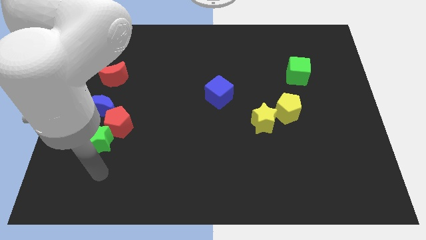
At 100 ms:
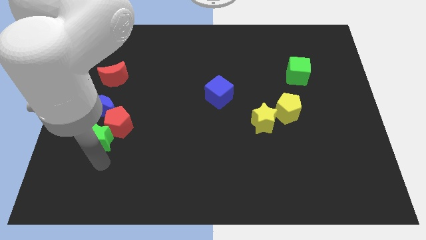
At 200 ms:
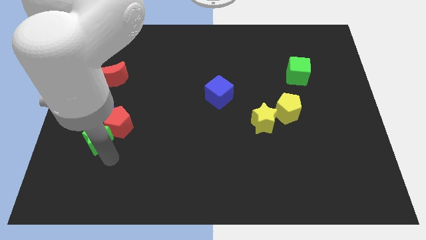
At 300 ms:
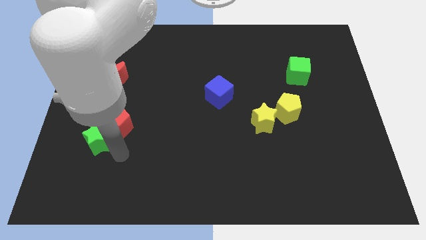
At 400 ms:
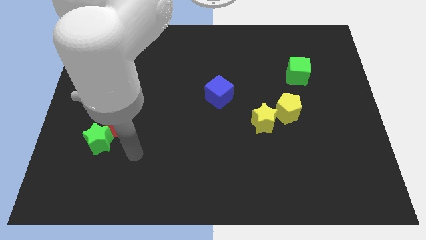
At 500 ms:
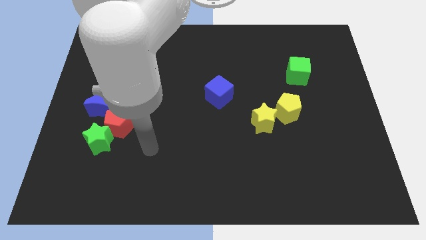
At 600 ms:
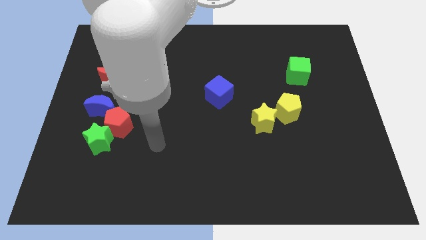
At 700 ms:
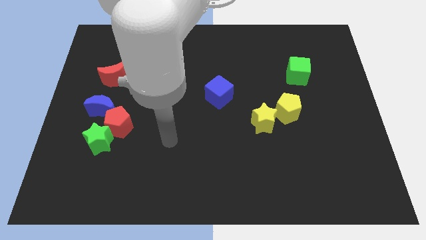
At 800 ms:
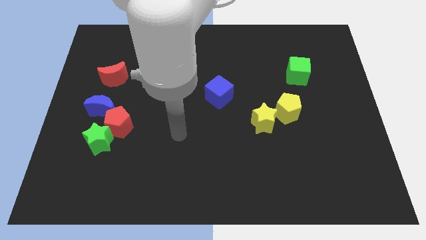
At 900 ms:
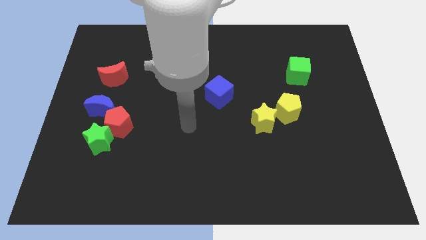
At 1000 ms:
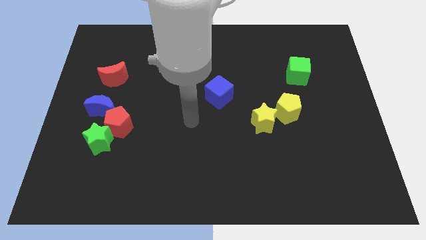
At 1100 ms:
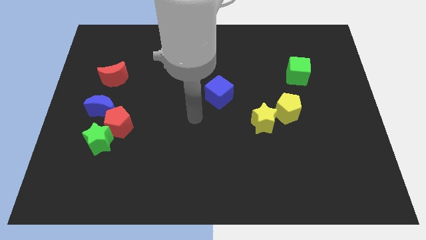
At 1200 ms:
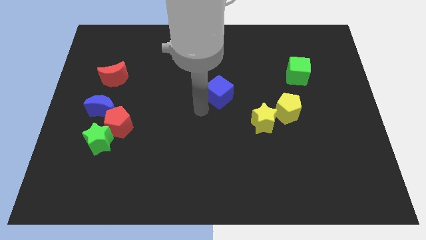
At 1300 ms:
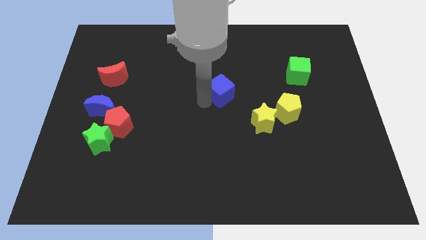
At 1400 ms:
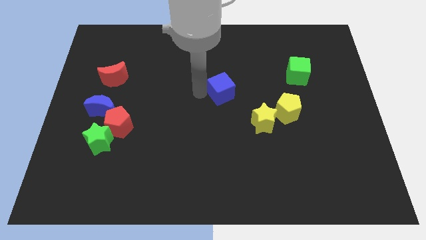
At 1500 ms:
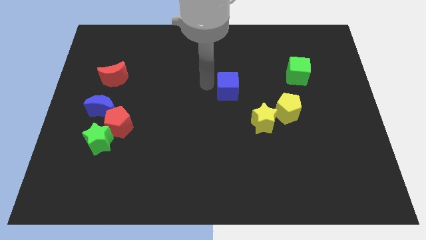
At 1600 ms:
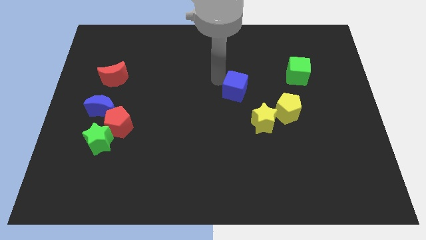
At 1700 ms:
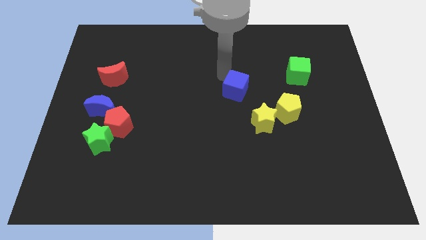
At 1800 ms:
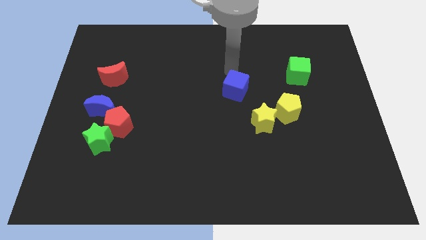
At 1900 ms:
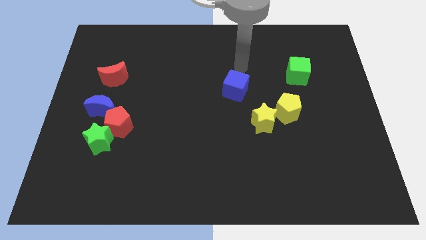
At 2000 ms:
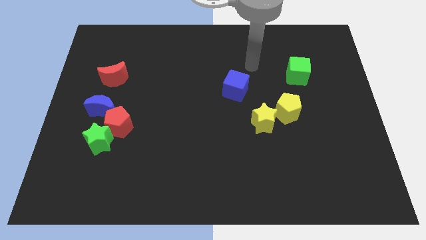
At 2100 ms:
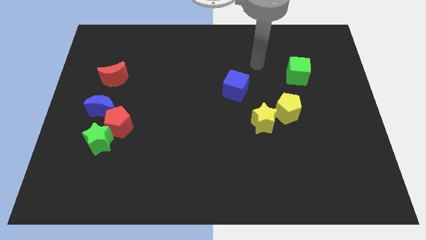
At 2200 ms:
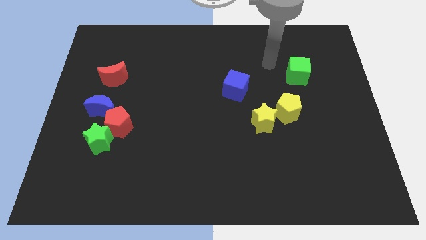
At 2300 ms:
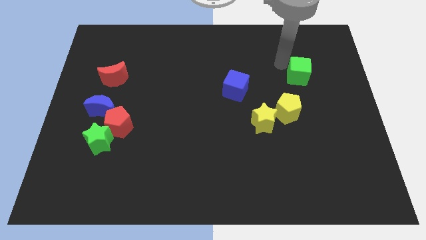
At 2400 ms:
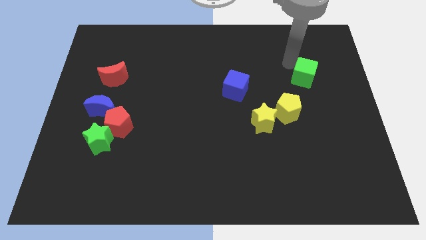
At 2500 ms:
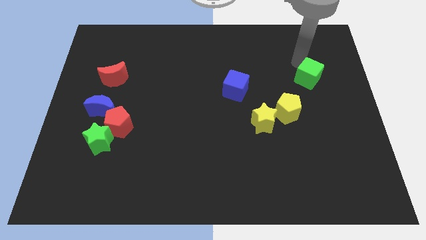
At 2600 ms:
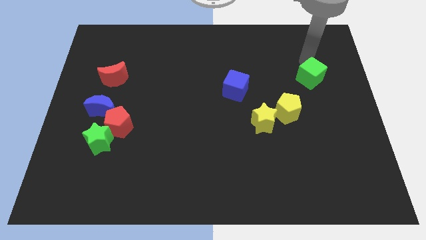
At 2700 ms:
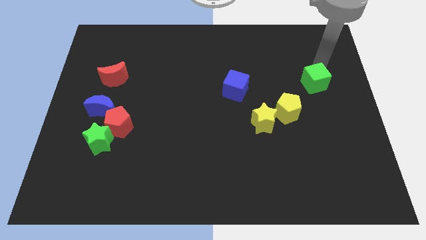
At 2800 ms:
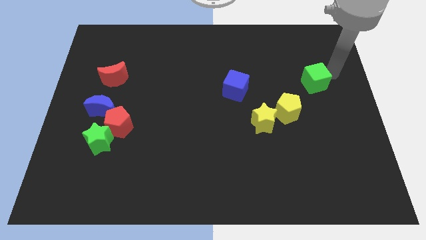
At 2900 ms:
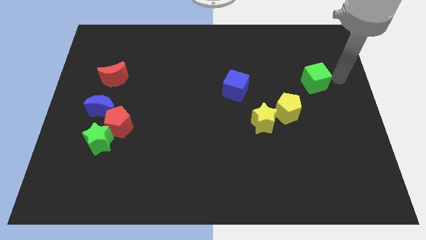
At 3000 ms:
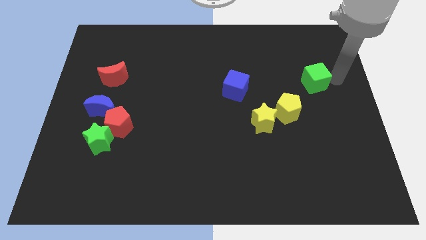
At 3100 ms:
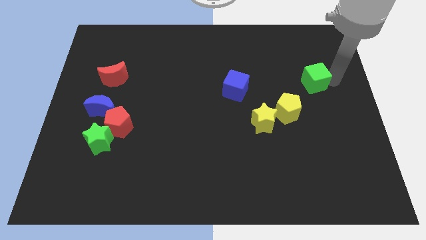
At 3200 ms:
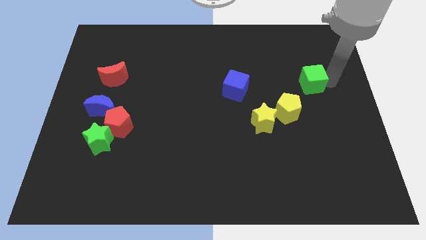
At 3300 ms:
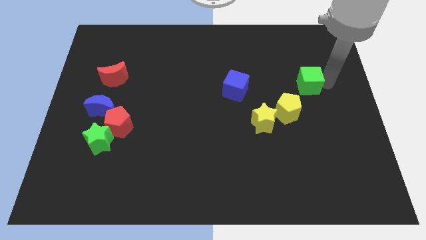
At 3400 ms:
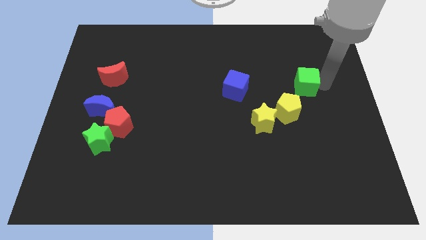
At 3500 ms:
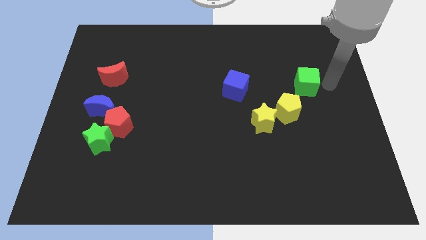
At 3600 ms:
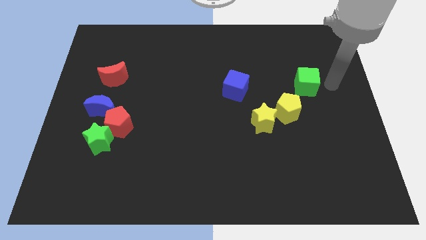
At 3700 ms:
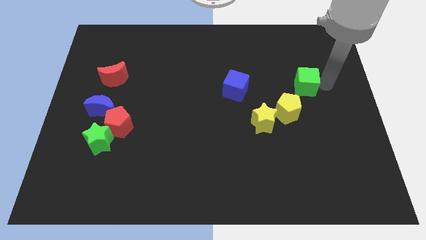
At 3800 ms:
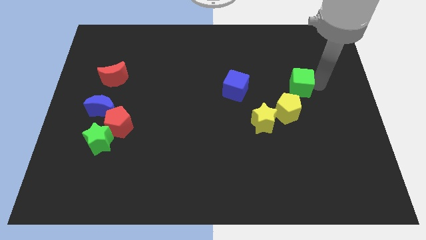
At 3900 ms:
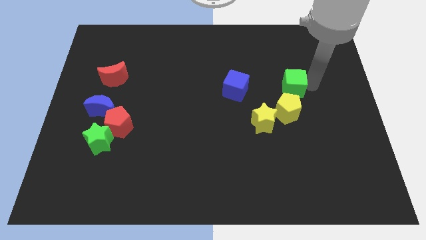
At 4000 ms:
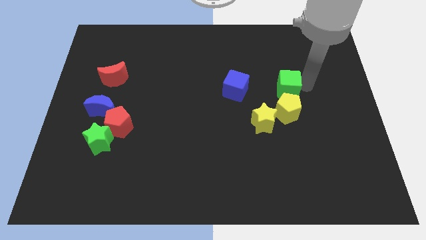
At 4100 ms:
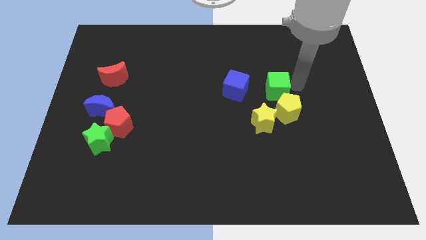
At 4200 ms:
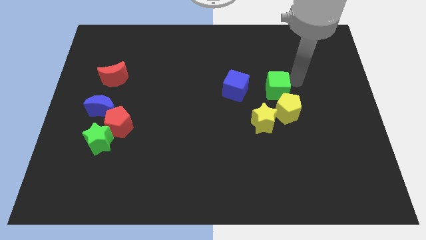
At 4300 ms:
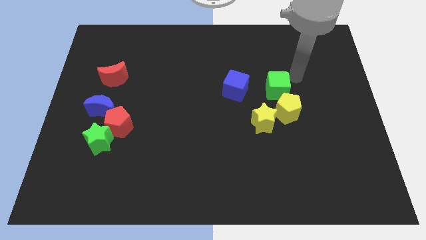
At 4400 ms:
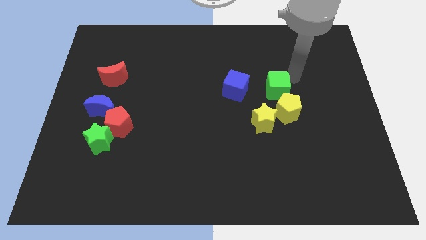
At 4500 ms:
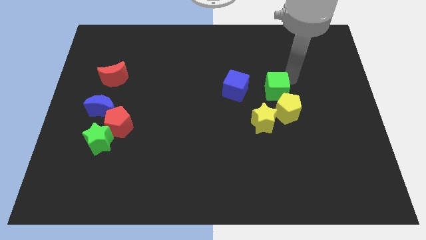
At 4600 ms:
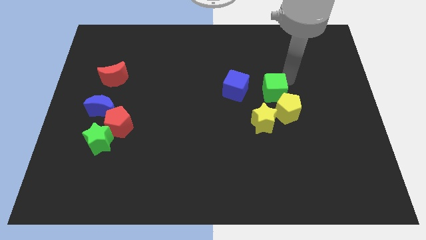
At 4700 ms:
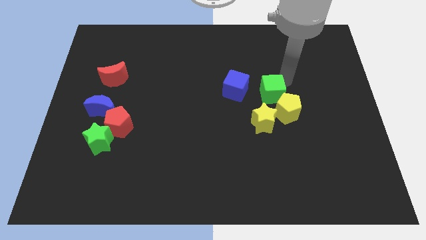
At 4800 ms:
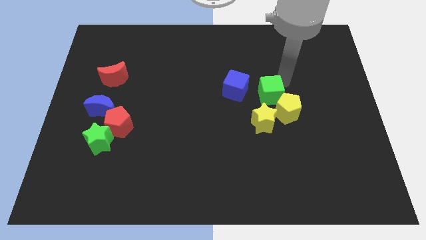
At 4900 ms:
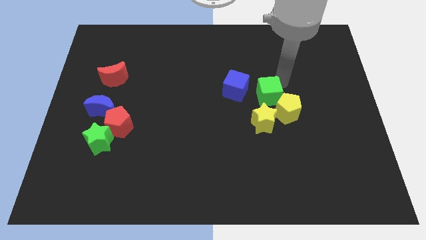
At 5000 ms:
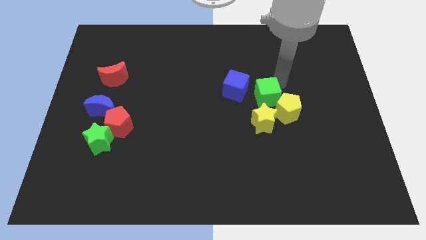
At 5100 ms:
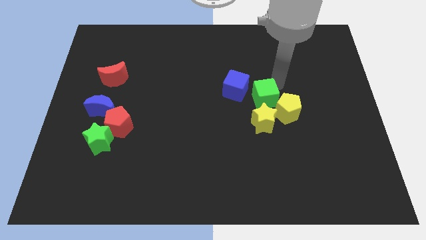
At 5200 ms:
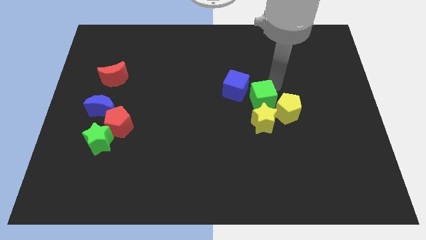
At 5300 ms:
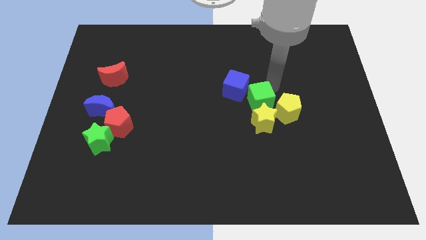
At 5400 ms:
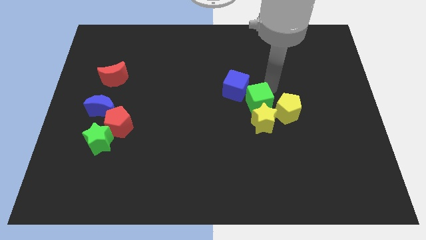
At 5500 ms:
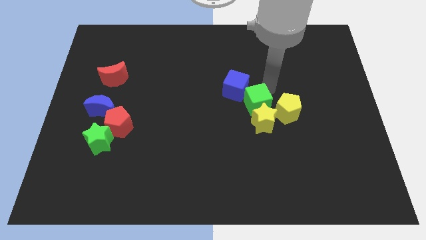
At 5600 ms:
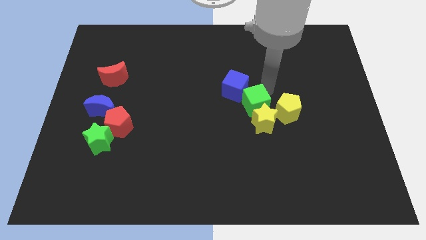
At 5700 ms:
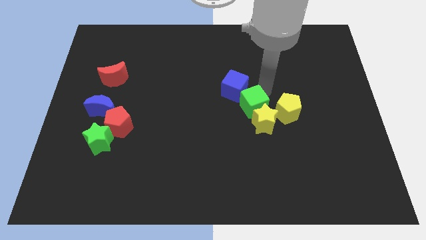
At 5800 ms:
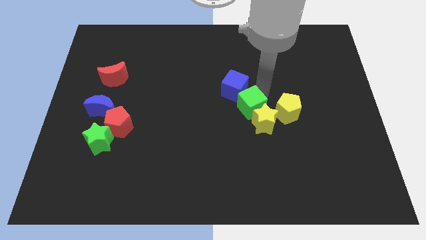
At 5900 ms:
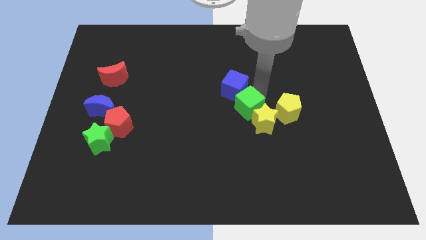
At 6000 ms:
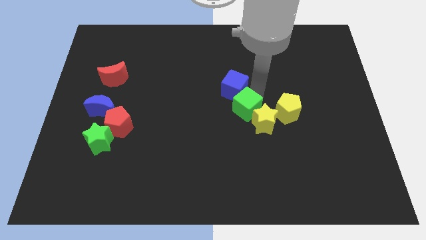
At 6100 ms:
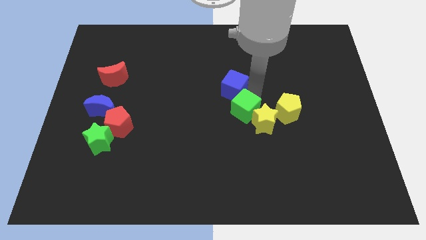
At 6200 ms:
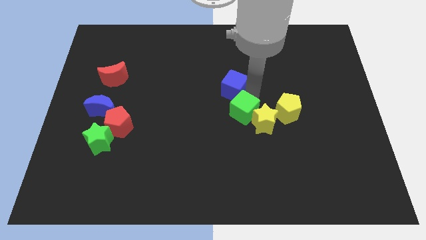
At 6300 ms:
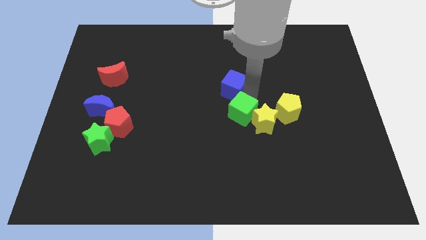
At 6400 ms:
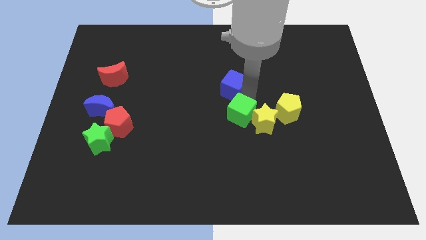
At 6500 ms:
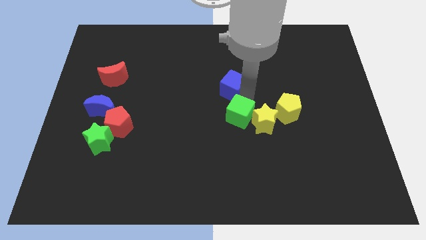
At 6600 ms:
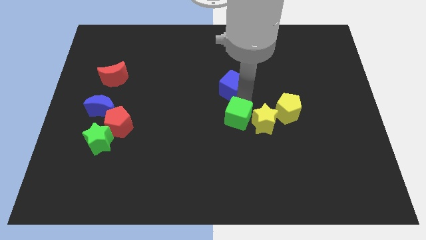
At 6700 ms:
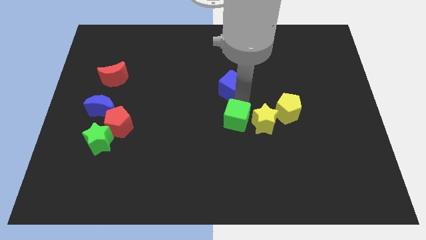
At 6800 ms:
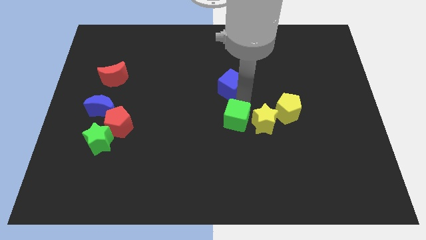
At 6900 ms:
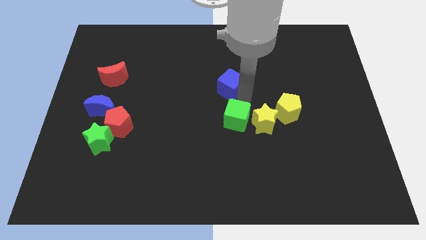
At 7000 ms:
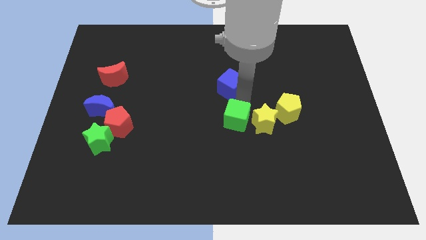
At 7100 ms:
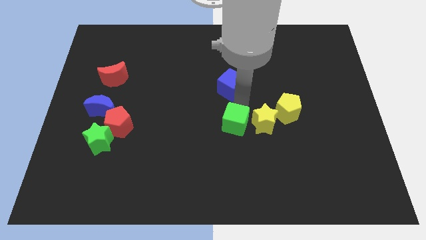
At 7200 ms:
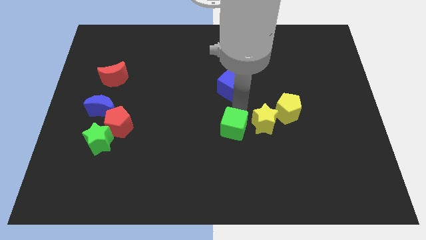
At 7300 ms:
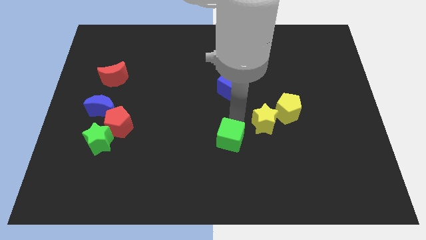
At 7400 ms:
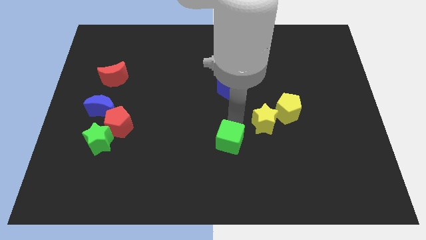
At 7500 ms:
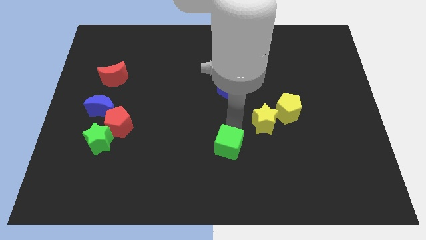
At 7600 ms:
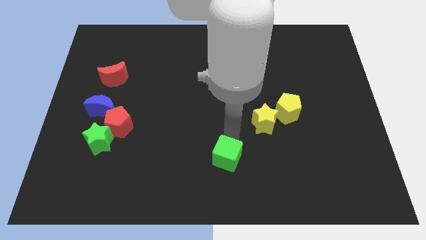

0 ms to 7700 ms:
push the green cube to the bottom
